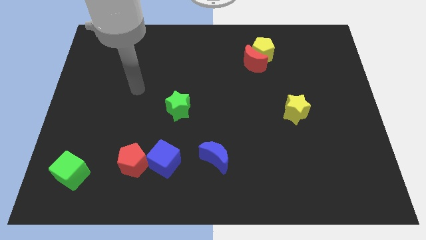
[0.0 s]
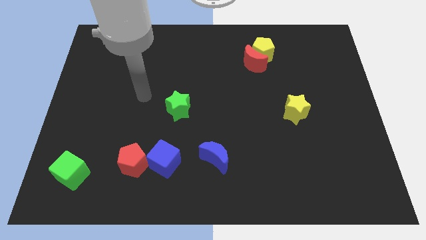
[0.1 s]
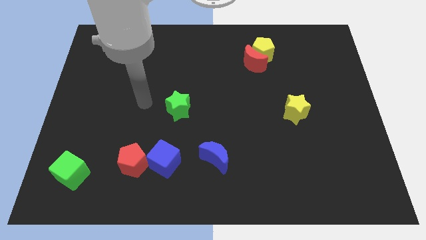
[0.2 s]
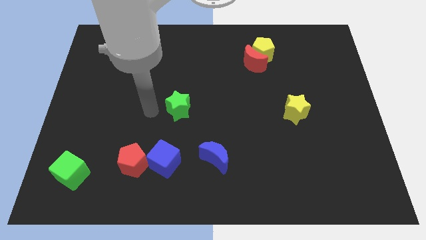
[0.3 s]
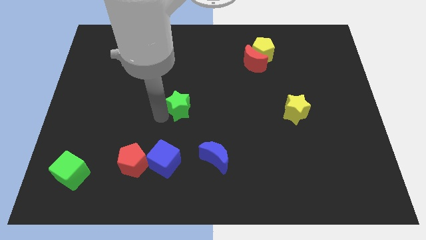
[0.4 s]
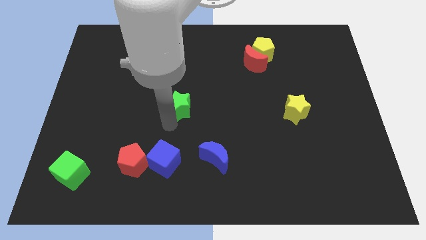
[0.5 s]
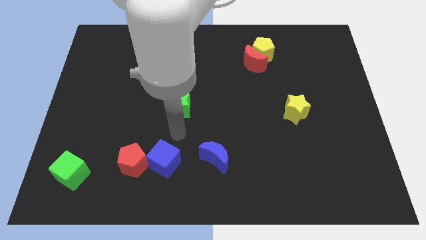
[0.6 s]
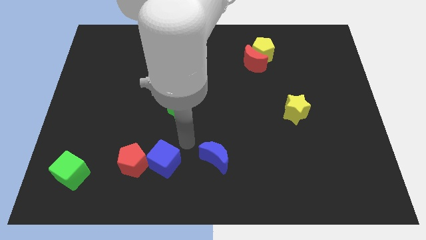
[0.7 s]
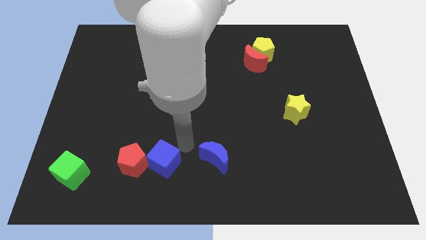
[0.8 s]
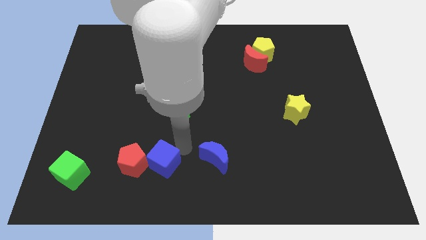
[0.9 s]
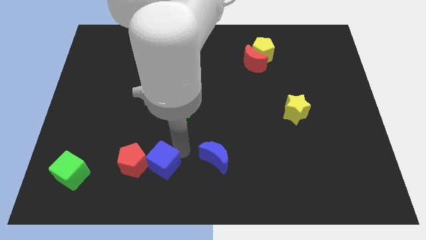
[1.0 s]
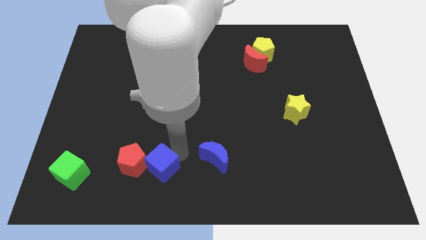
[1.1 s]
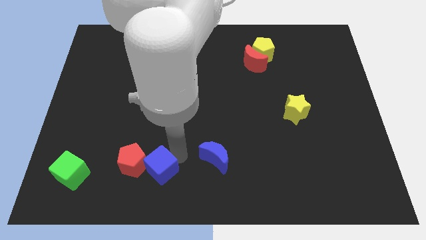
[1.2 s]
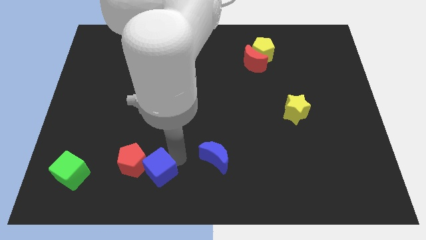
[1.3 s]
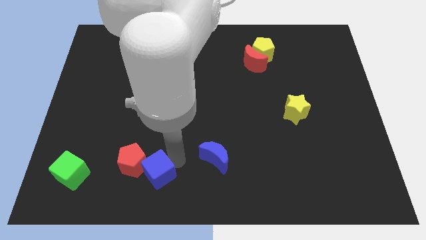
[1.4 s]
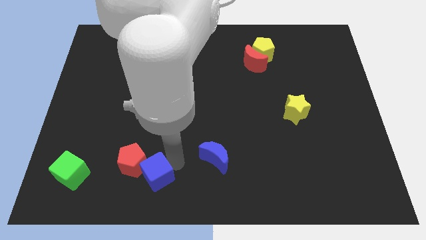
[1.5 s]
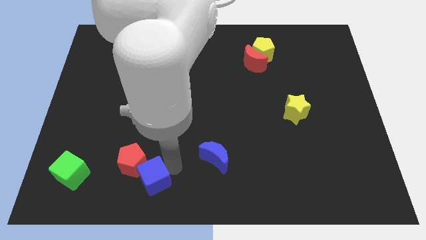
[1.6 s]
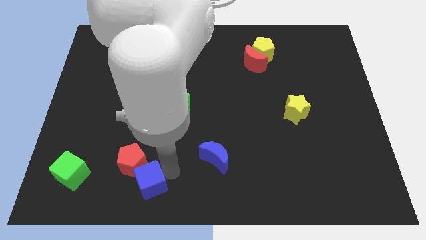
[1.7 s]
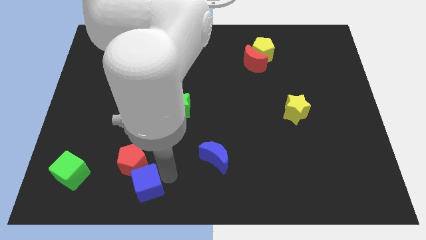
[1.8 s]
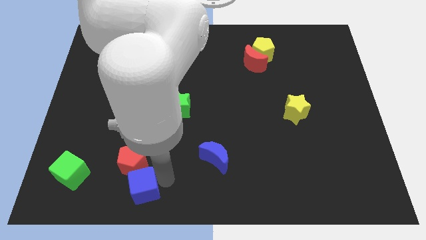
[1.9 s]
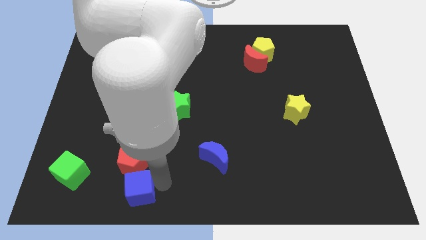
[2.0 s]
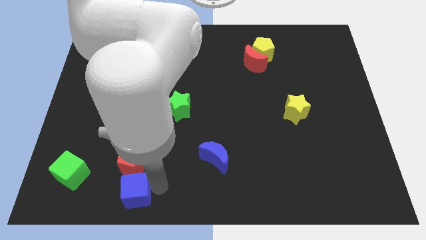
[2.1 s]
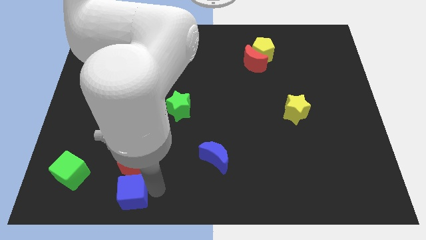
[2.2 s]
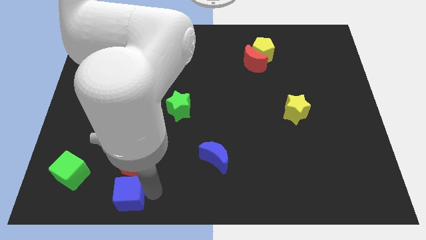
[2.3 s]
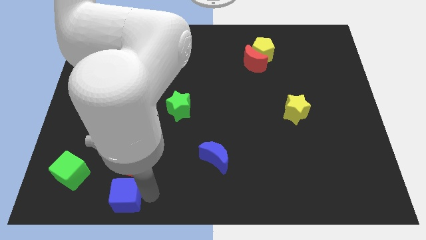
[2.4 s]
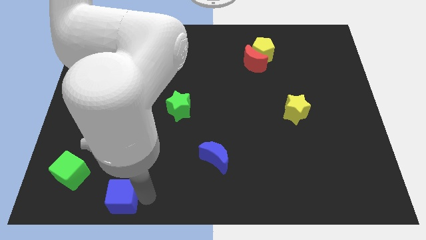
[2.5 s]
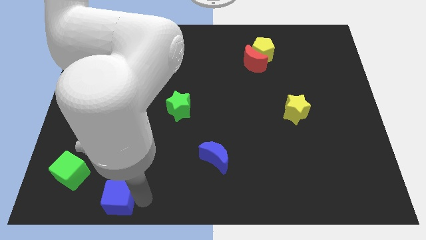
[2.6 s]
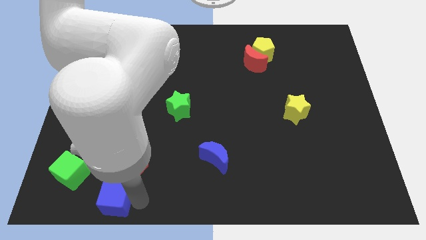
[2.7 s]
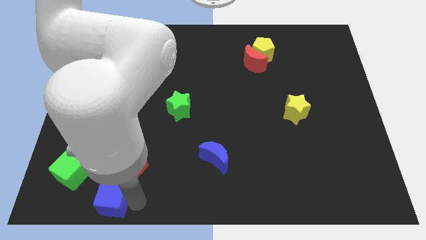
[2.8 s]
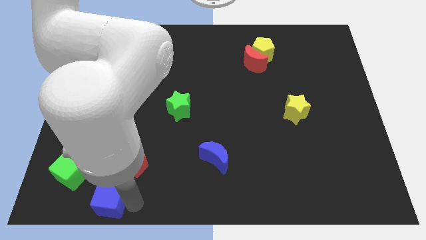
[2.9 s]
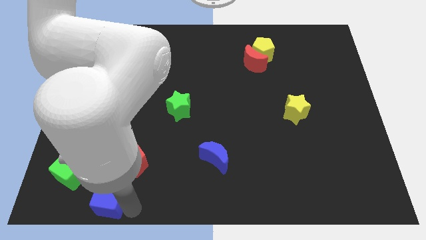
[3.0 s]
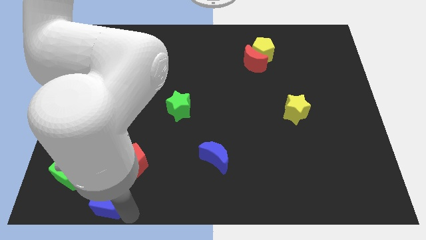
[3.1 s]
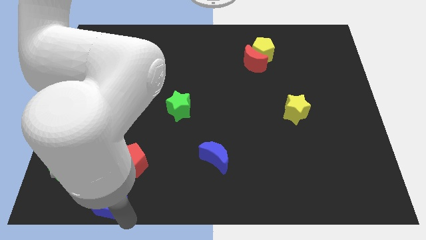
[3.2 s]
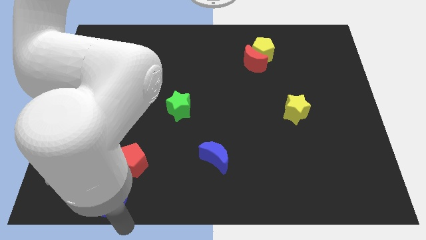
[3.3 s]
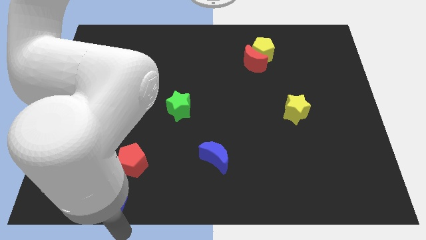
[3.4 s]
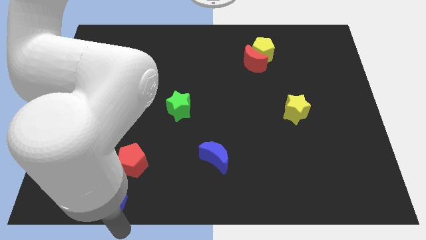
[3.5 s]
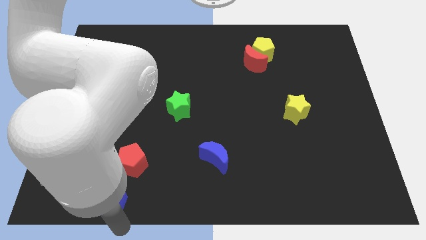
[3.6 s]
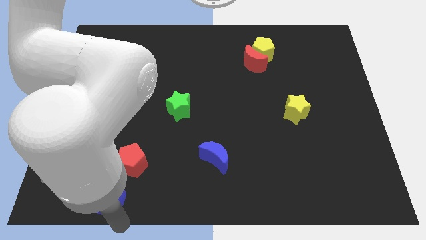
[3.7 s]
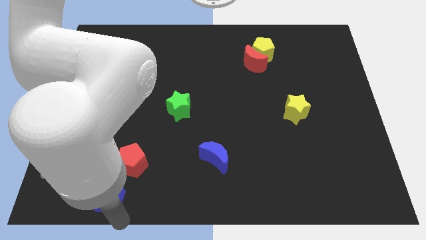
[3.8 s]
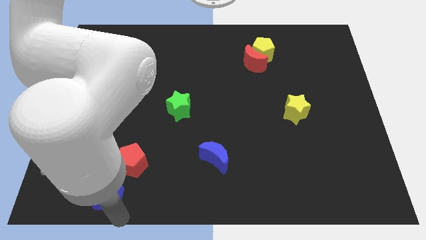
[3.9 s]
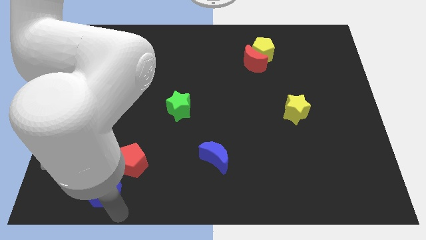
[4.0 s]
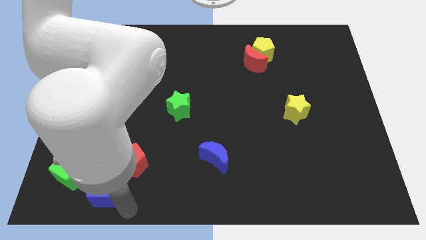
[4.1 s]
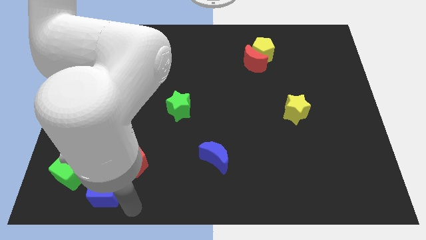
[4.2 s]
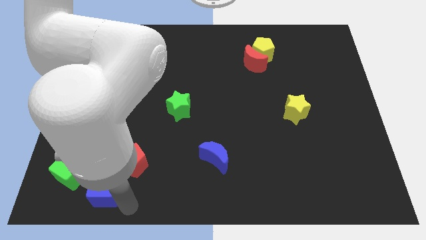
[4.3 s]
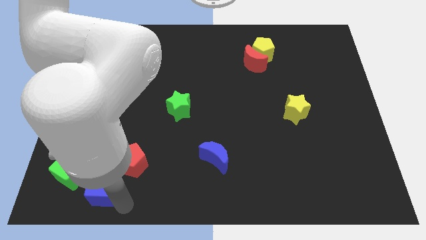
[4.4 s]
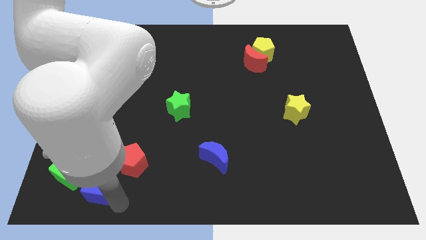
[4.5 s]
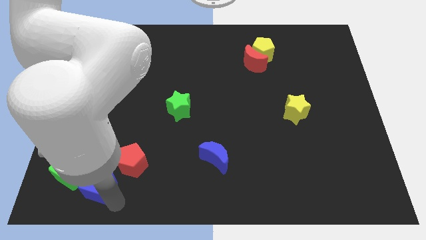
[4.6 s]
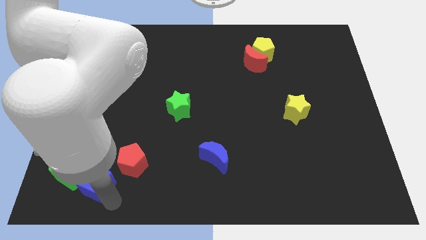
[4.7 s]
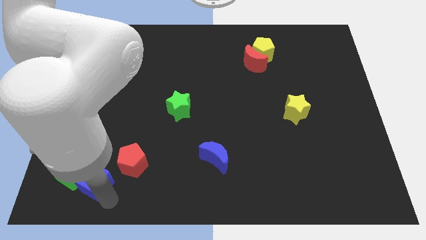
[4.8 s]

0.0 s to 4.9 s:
push the blue cube next to the green cube

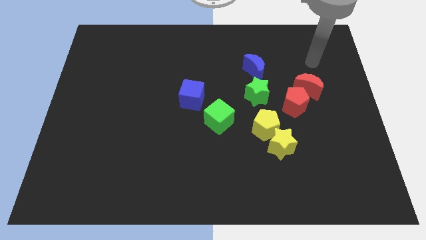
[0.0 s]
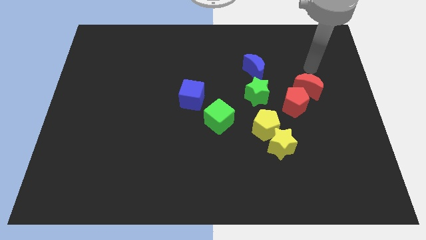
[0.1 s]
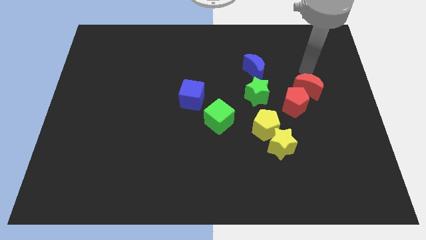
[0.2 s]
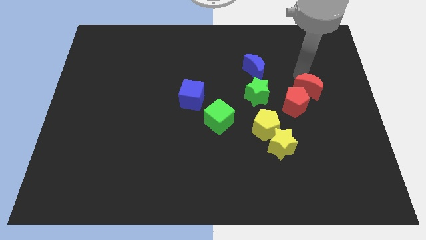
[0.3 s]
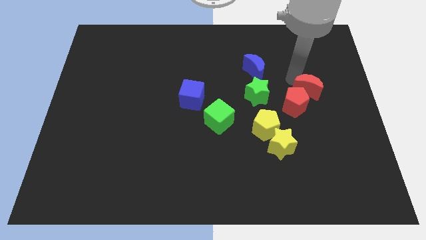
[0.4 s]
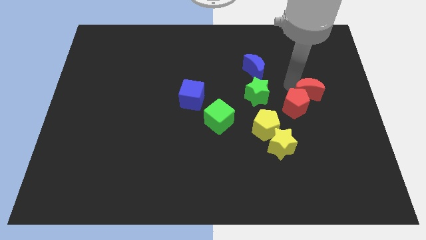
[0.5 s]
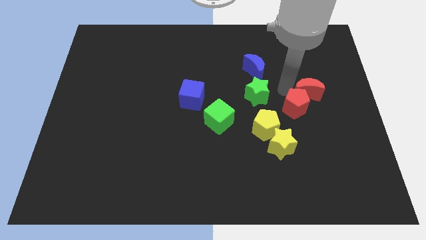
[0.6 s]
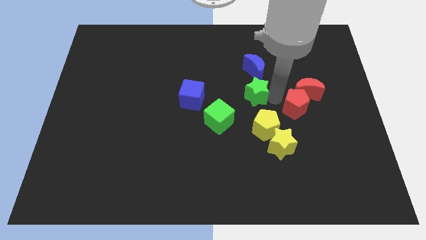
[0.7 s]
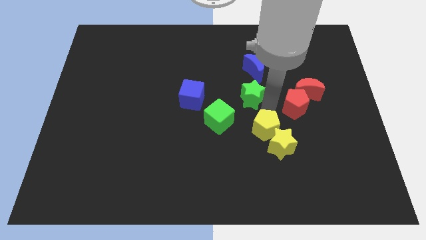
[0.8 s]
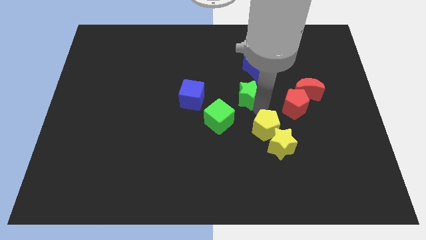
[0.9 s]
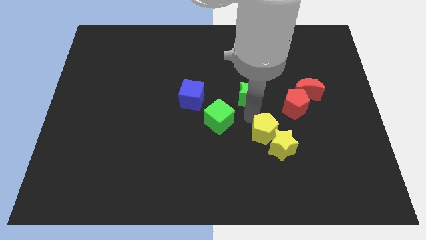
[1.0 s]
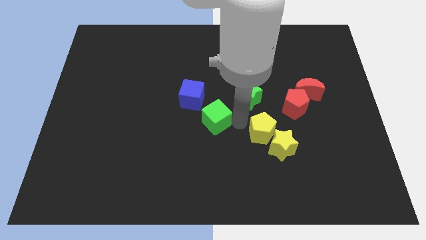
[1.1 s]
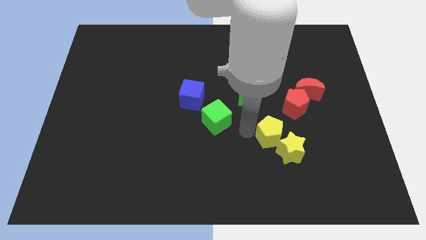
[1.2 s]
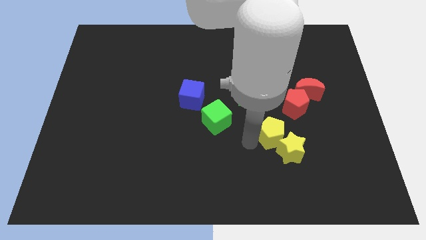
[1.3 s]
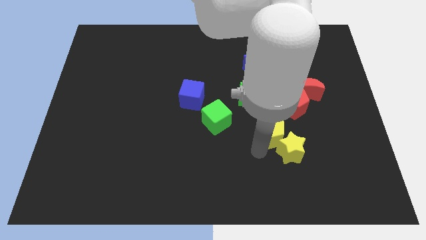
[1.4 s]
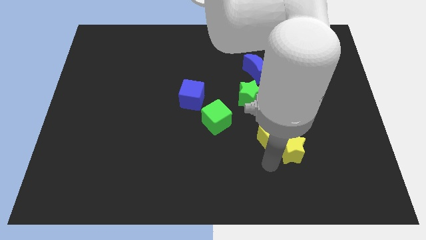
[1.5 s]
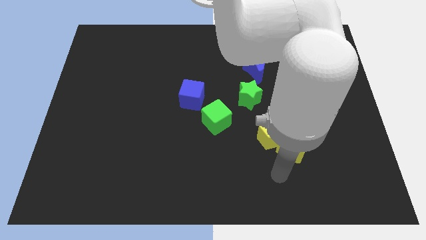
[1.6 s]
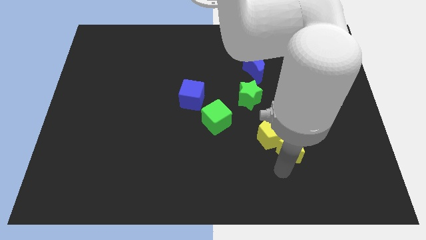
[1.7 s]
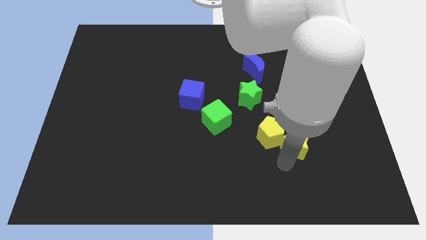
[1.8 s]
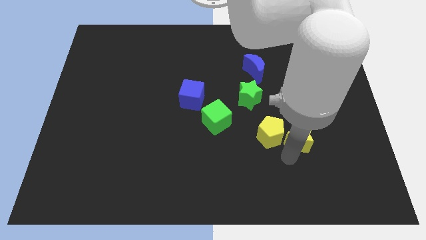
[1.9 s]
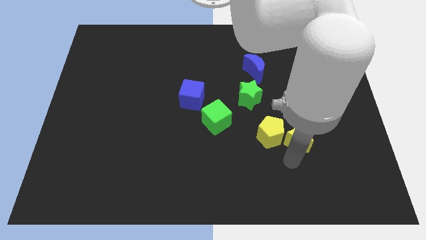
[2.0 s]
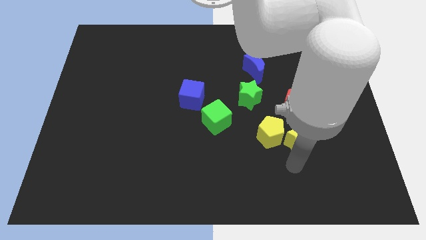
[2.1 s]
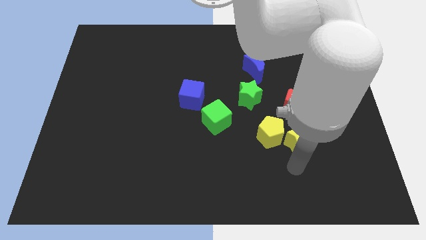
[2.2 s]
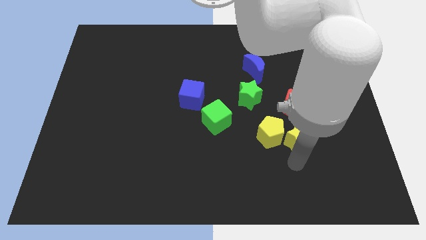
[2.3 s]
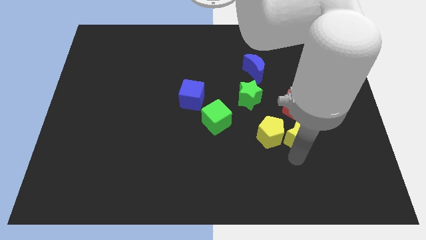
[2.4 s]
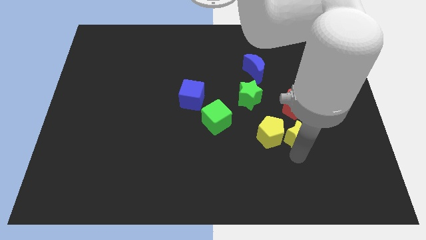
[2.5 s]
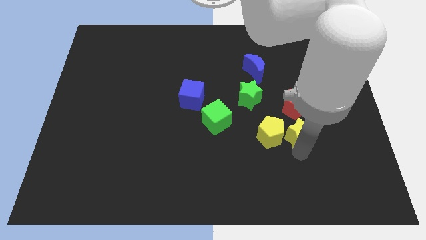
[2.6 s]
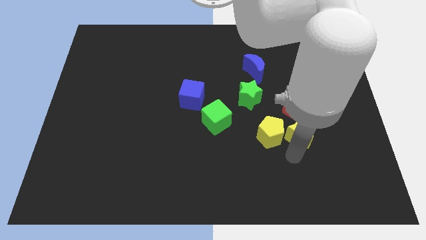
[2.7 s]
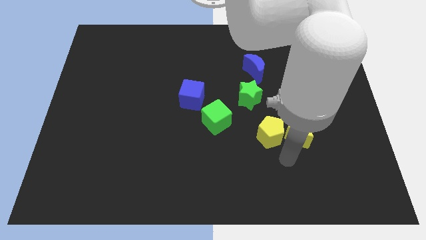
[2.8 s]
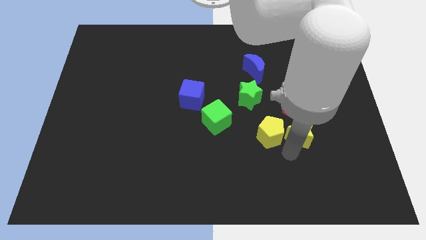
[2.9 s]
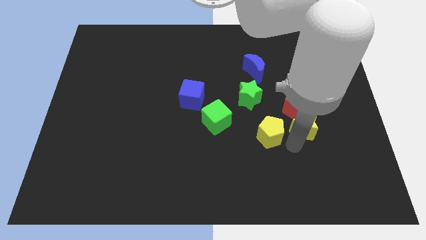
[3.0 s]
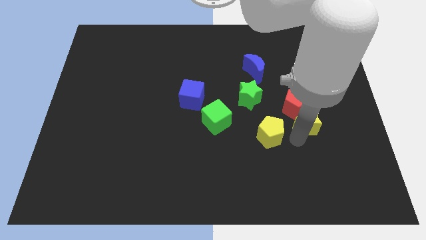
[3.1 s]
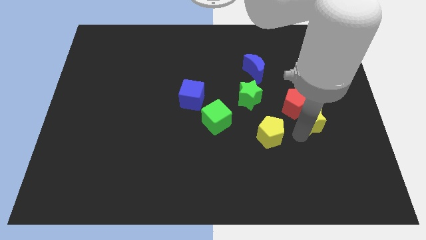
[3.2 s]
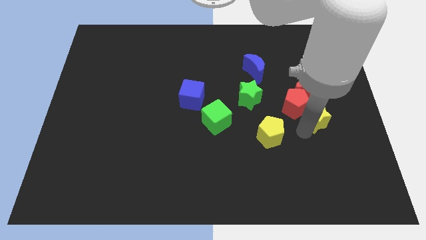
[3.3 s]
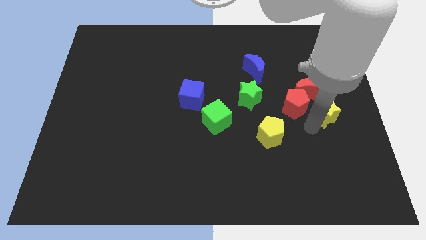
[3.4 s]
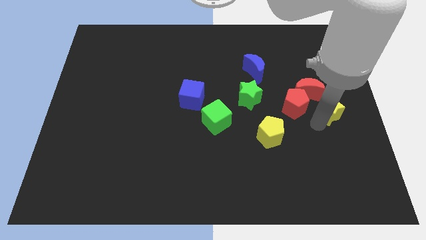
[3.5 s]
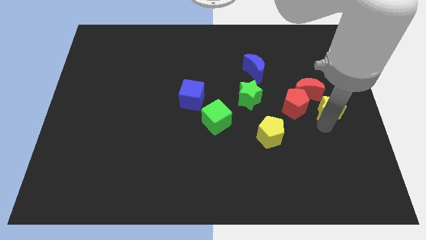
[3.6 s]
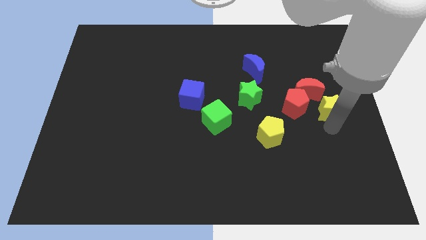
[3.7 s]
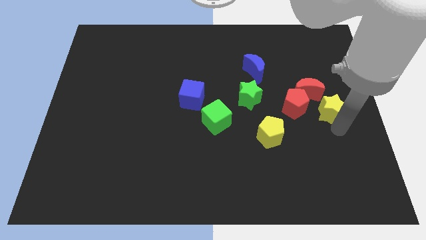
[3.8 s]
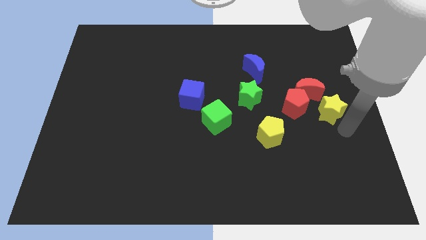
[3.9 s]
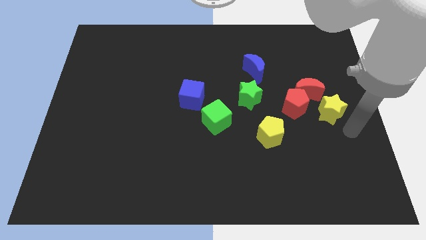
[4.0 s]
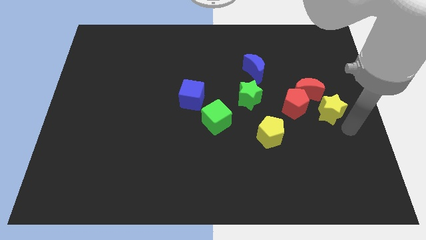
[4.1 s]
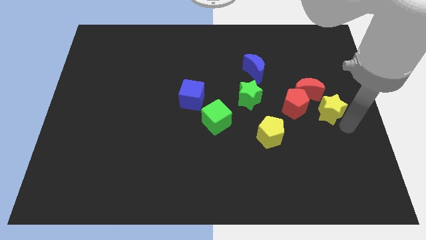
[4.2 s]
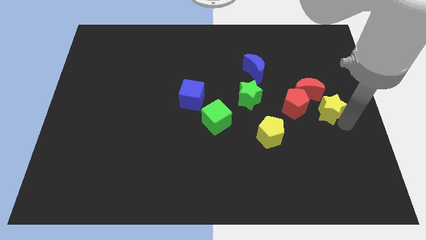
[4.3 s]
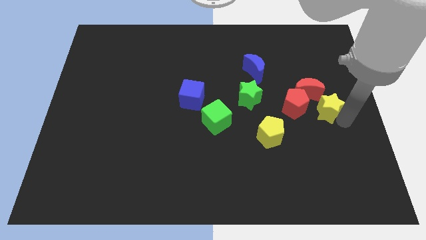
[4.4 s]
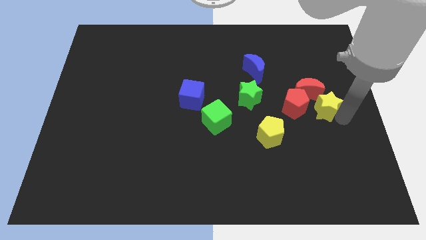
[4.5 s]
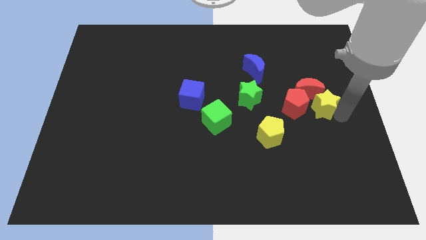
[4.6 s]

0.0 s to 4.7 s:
move the yellow star next to the red moon
